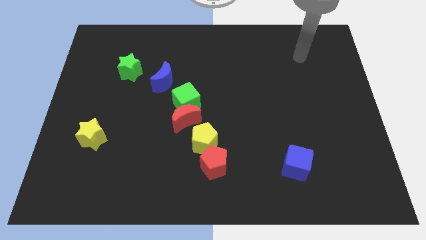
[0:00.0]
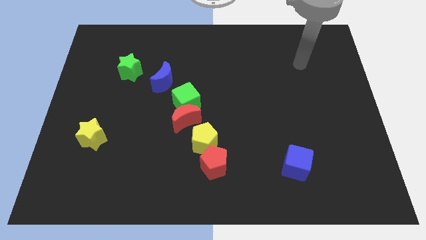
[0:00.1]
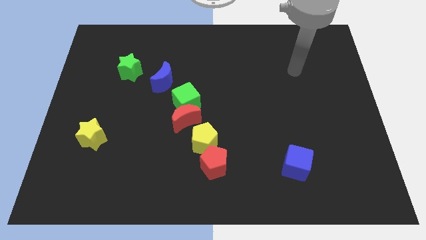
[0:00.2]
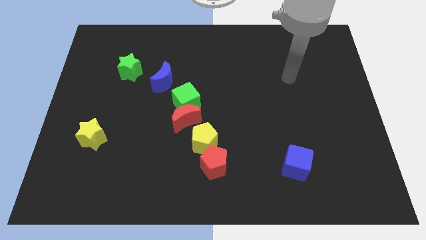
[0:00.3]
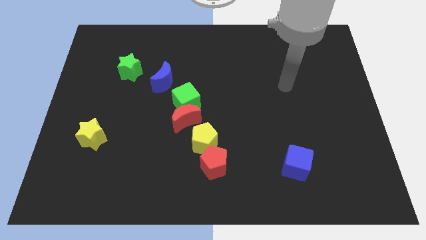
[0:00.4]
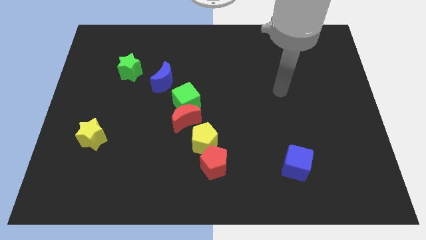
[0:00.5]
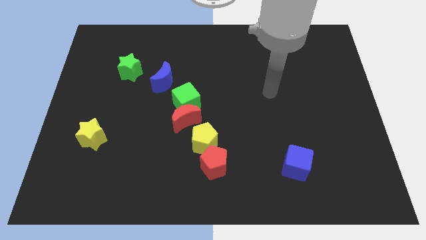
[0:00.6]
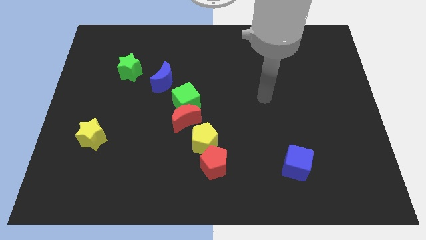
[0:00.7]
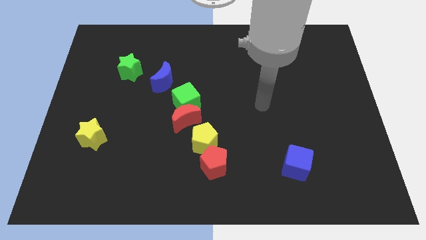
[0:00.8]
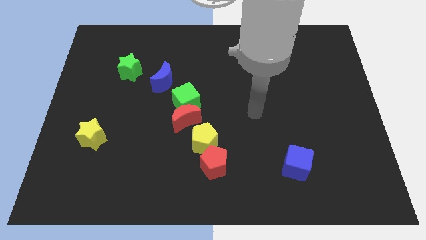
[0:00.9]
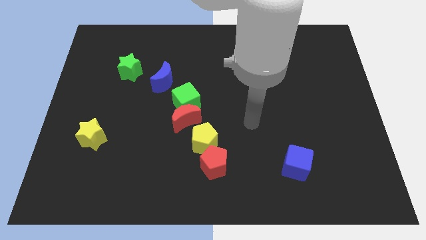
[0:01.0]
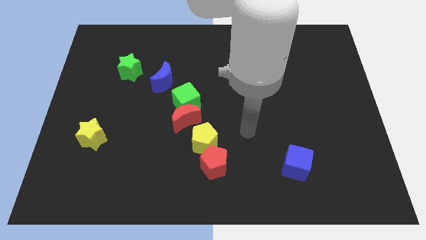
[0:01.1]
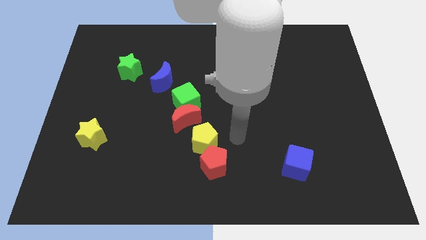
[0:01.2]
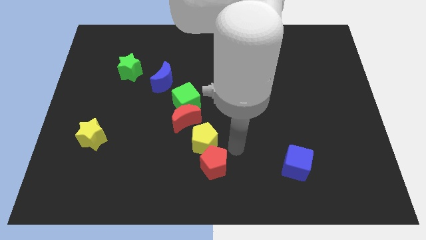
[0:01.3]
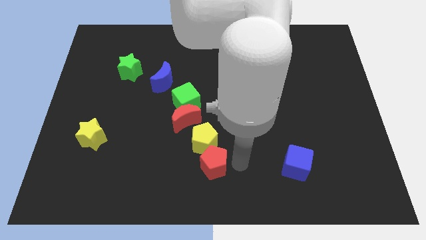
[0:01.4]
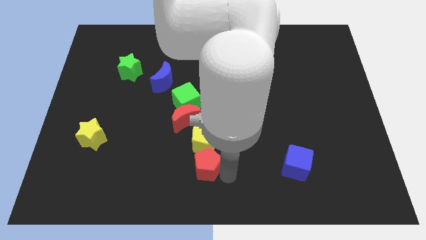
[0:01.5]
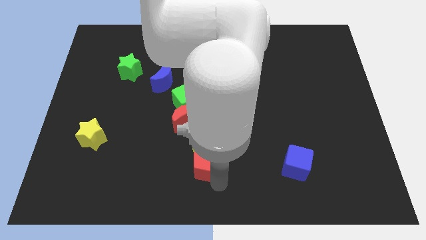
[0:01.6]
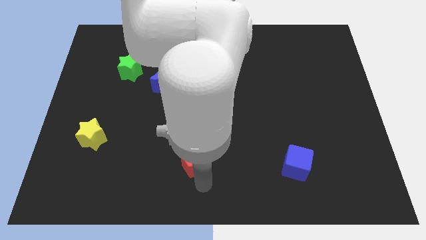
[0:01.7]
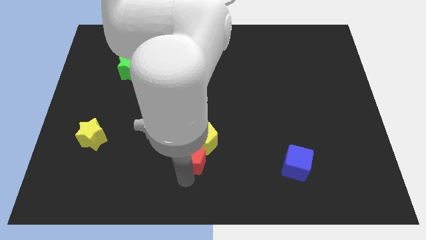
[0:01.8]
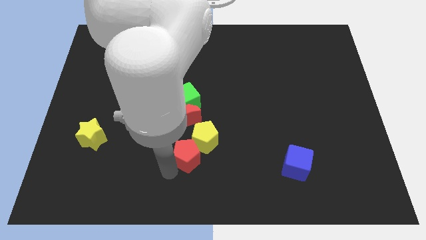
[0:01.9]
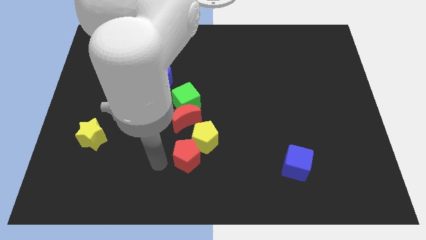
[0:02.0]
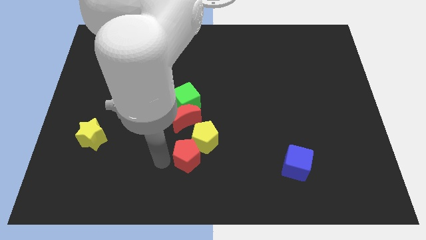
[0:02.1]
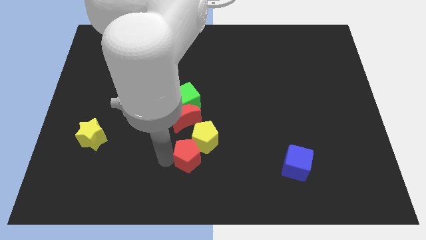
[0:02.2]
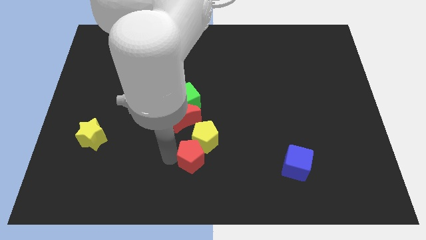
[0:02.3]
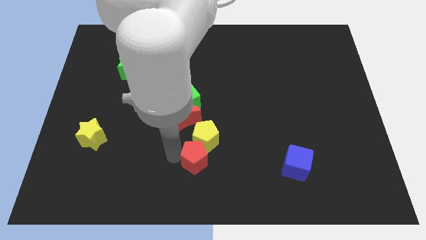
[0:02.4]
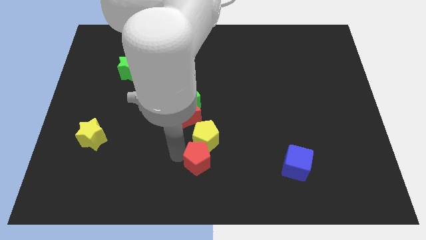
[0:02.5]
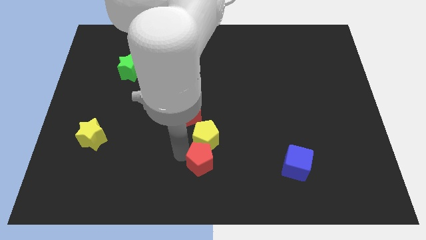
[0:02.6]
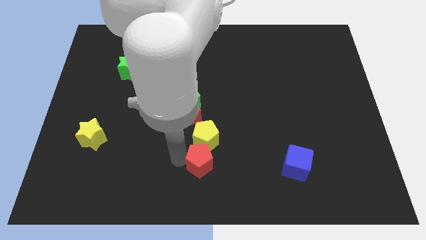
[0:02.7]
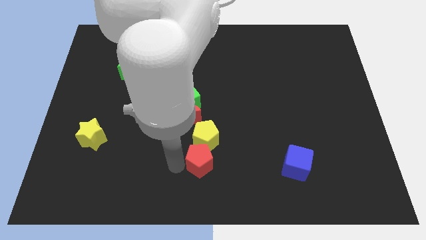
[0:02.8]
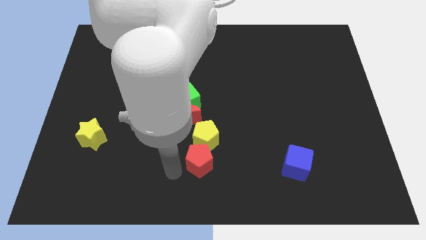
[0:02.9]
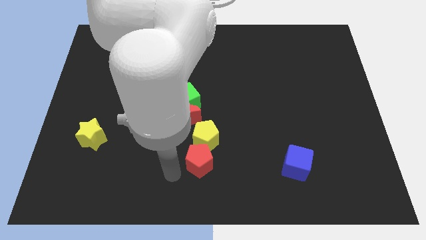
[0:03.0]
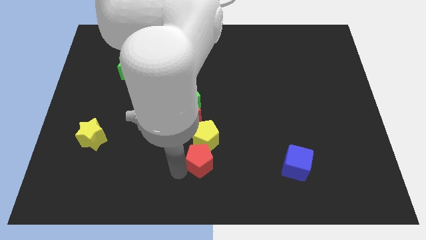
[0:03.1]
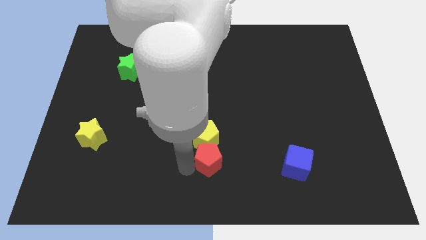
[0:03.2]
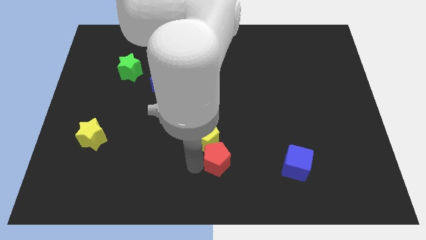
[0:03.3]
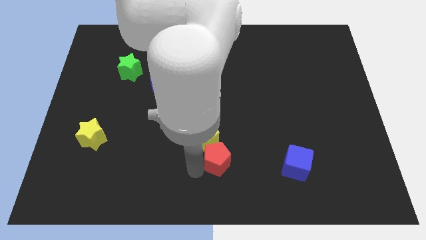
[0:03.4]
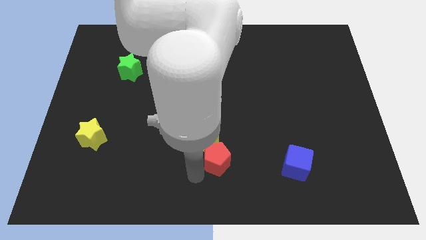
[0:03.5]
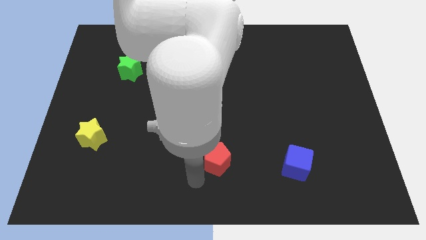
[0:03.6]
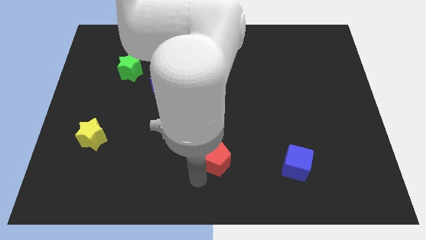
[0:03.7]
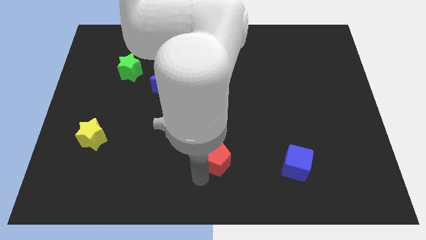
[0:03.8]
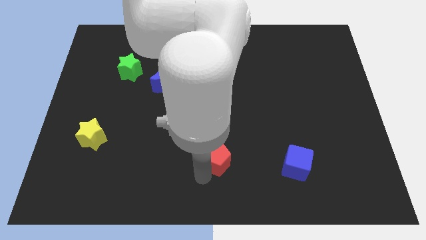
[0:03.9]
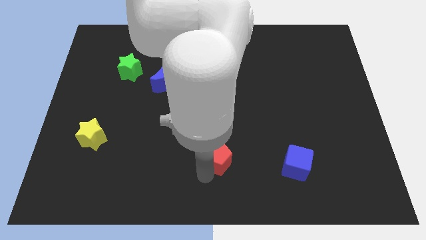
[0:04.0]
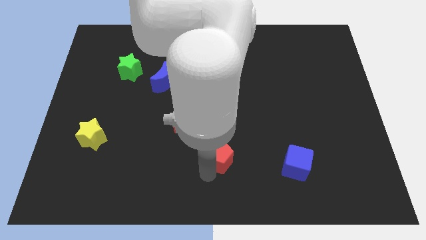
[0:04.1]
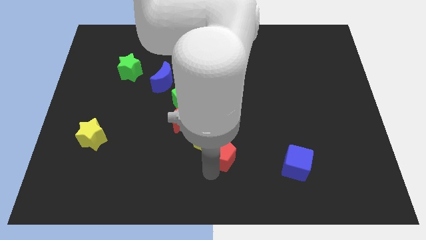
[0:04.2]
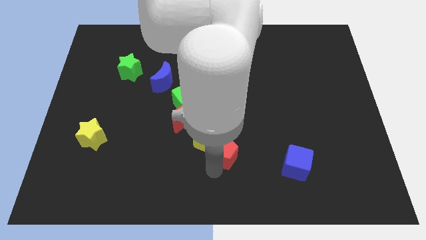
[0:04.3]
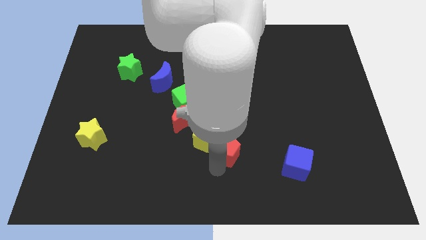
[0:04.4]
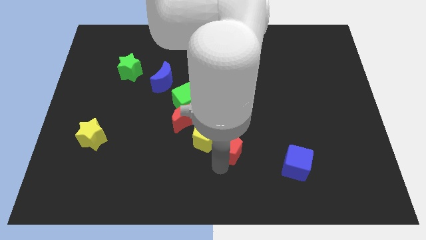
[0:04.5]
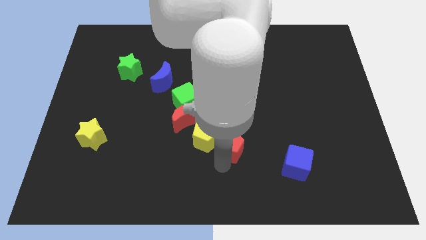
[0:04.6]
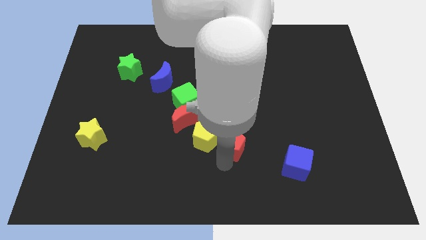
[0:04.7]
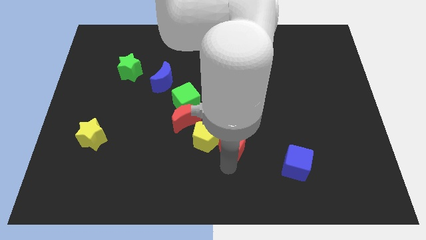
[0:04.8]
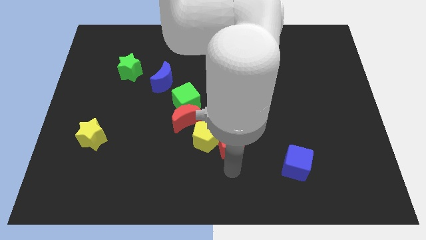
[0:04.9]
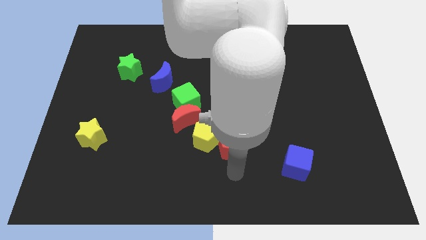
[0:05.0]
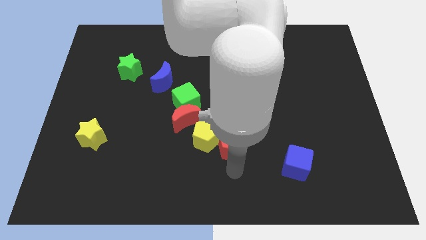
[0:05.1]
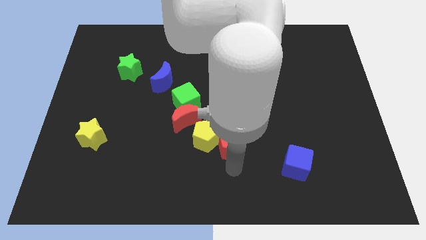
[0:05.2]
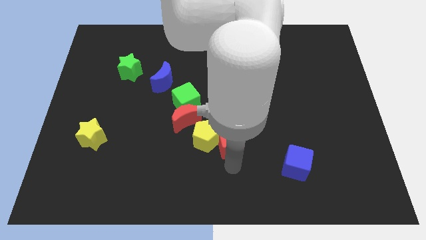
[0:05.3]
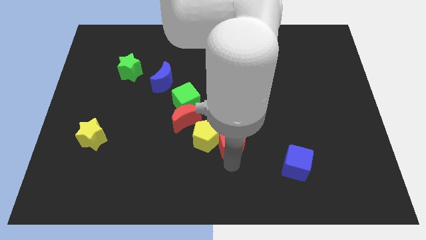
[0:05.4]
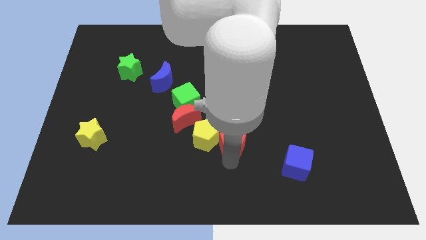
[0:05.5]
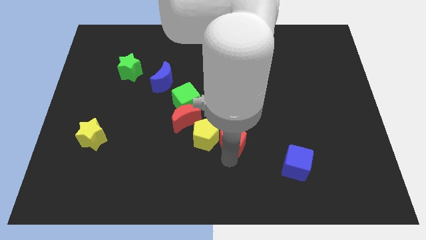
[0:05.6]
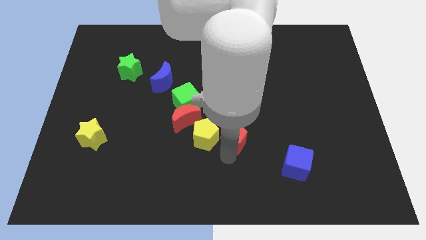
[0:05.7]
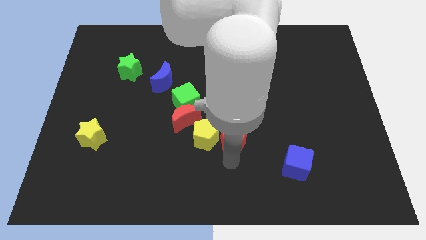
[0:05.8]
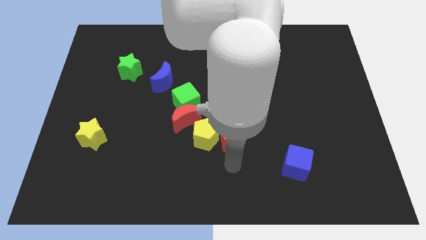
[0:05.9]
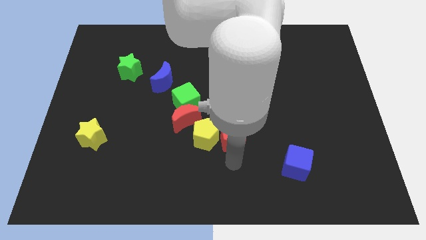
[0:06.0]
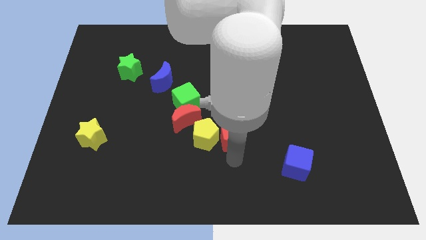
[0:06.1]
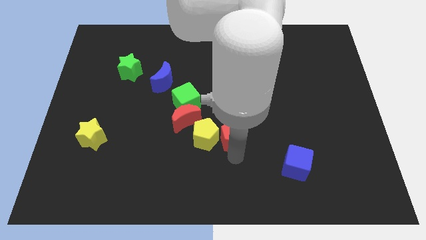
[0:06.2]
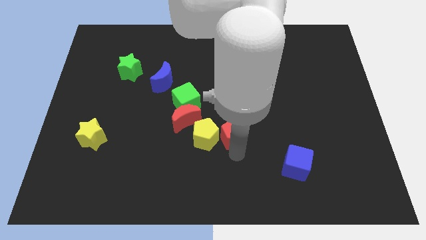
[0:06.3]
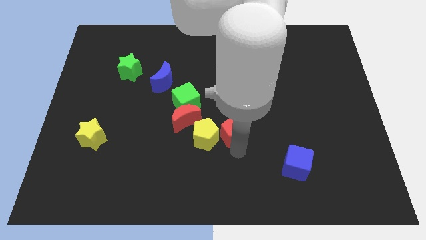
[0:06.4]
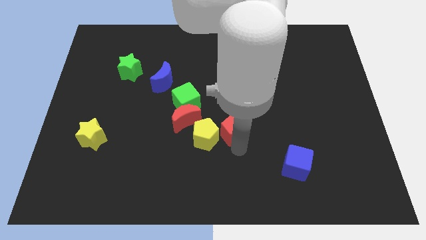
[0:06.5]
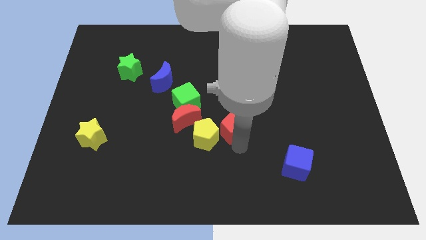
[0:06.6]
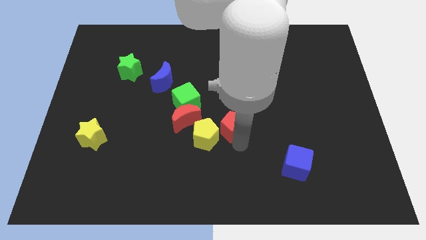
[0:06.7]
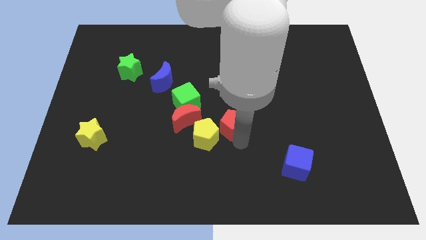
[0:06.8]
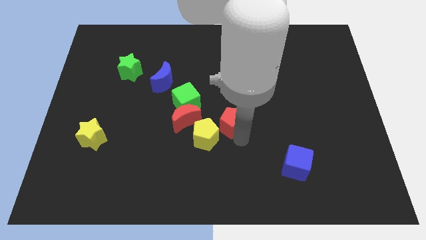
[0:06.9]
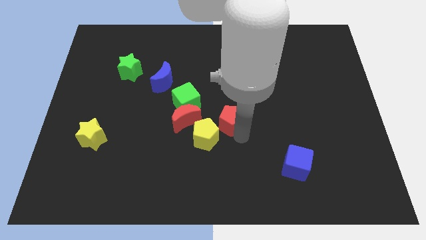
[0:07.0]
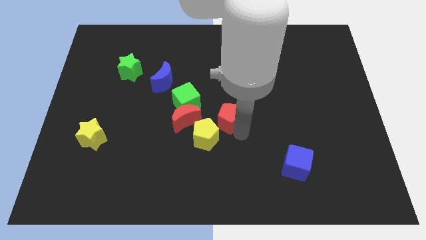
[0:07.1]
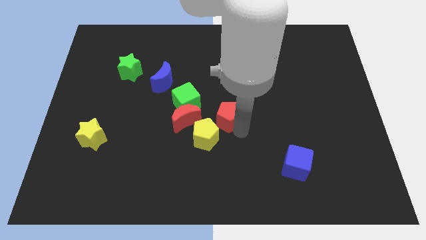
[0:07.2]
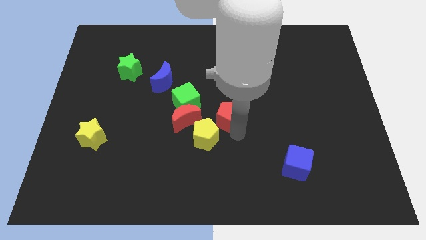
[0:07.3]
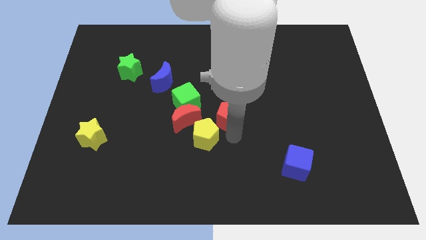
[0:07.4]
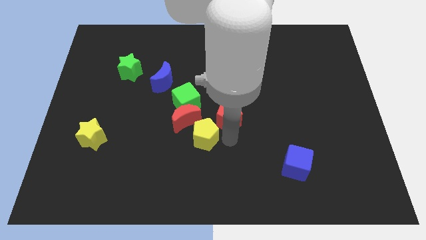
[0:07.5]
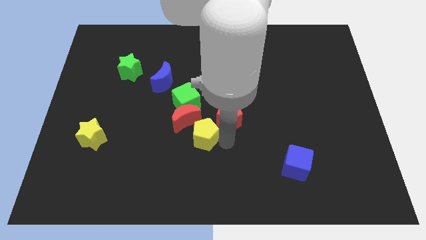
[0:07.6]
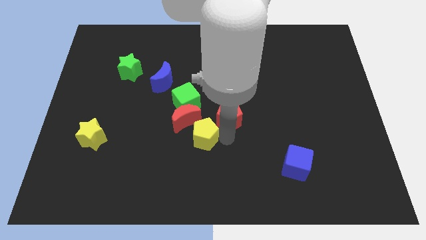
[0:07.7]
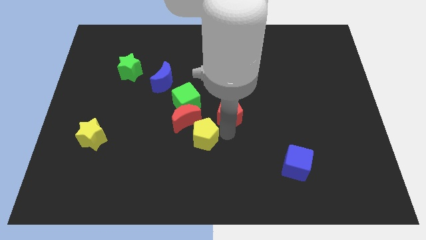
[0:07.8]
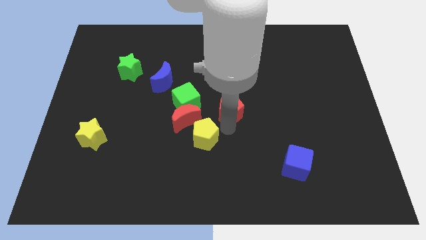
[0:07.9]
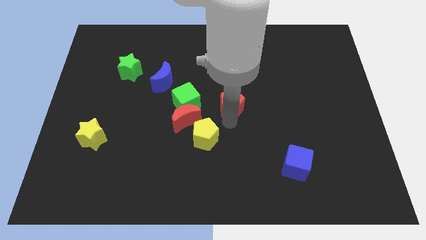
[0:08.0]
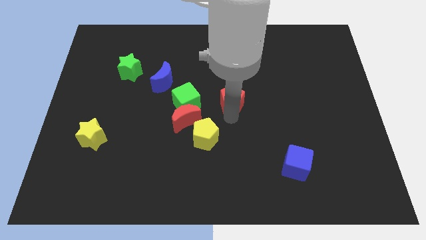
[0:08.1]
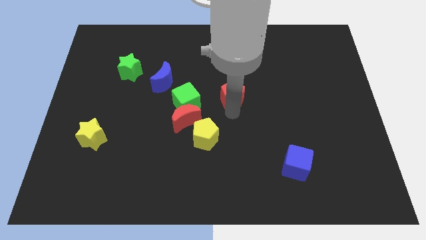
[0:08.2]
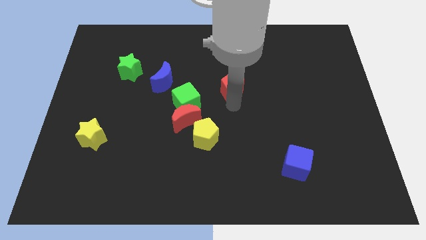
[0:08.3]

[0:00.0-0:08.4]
slide the red pentagon upwards
